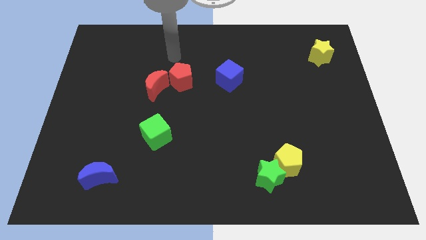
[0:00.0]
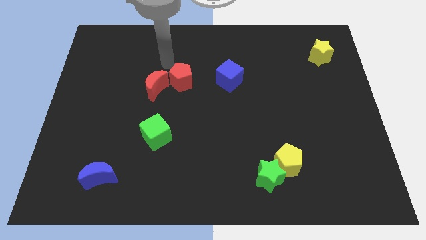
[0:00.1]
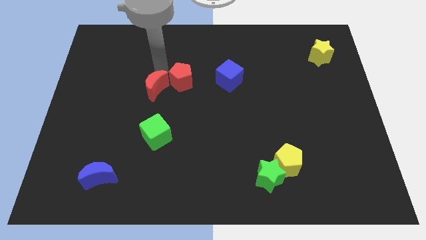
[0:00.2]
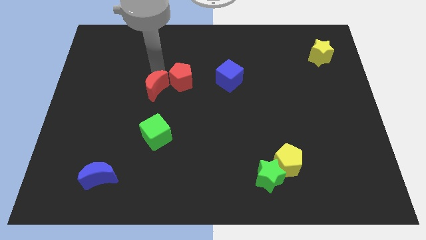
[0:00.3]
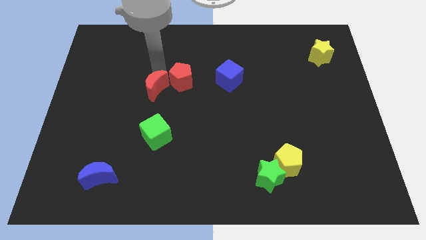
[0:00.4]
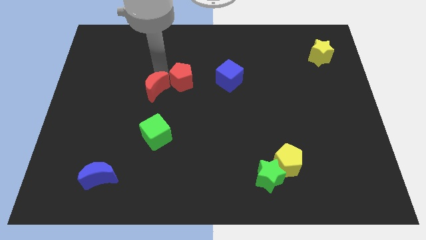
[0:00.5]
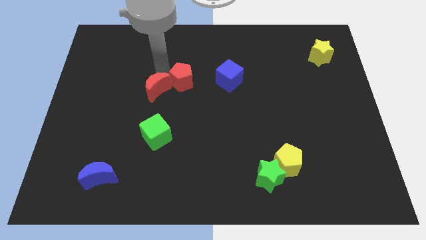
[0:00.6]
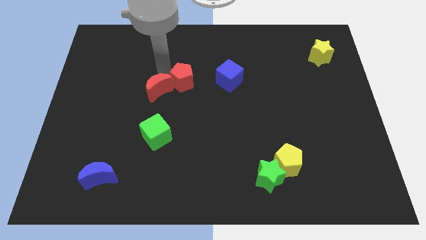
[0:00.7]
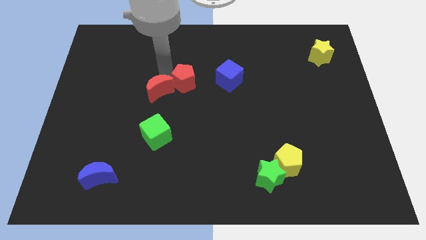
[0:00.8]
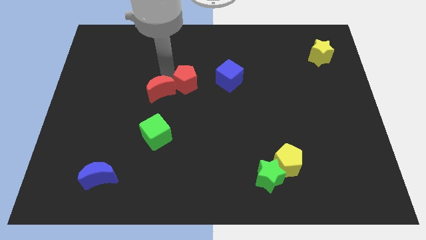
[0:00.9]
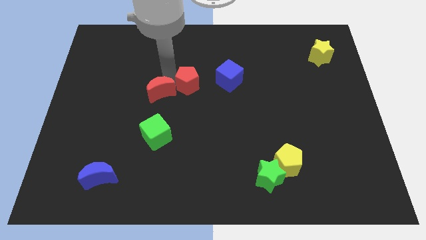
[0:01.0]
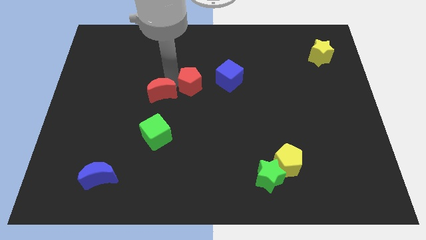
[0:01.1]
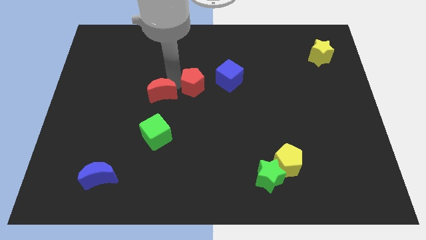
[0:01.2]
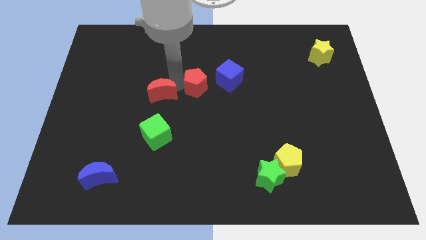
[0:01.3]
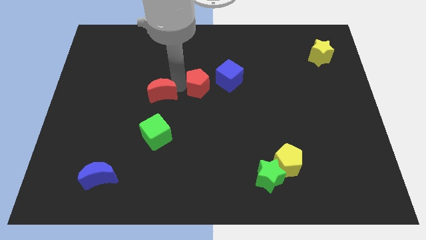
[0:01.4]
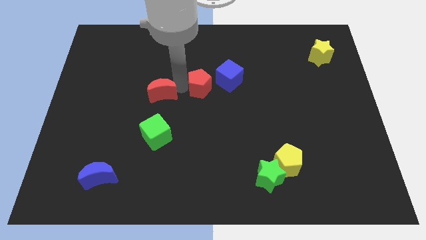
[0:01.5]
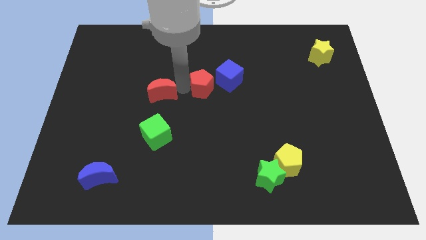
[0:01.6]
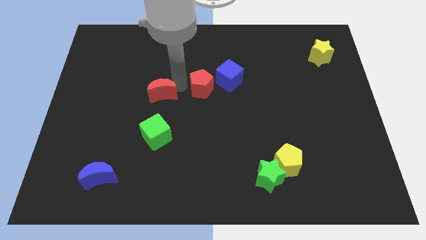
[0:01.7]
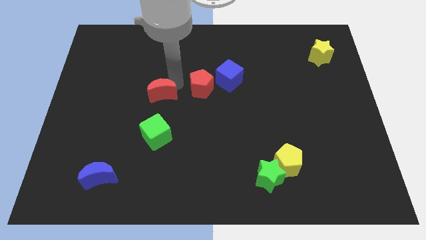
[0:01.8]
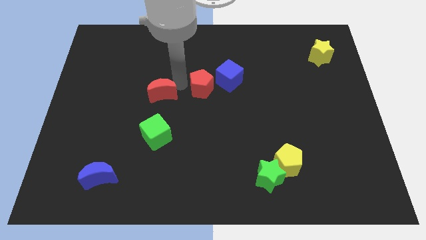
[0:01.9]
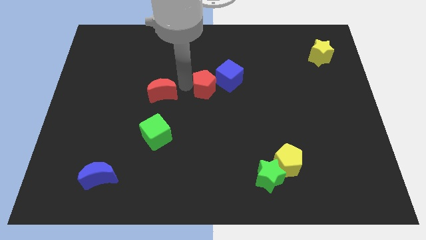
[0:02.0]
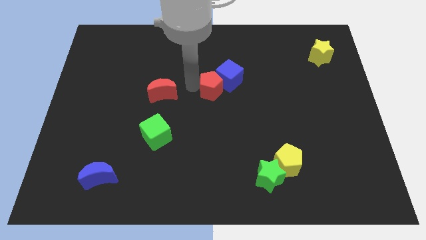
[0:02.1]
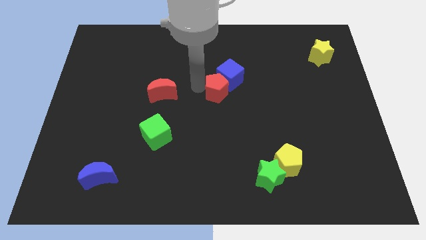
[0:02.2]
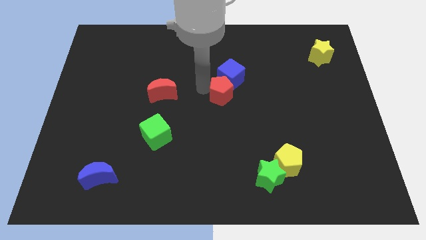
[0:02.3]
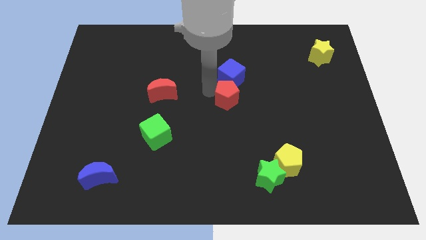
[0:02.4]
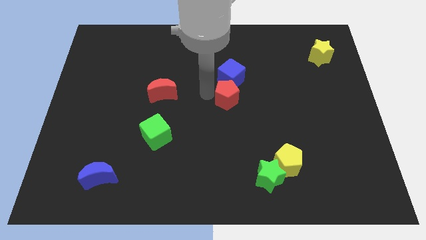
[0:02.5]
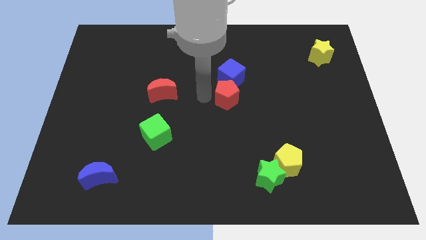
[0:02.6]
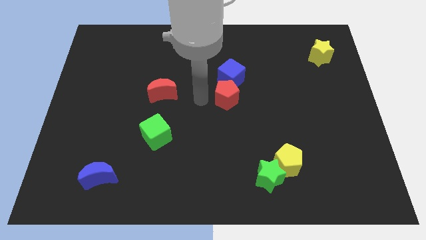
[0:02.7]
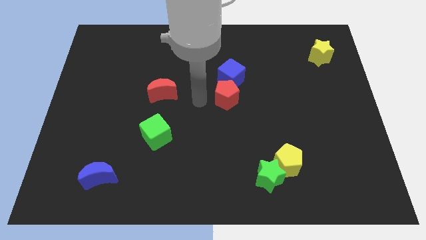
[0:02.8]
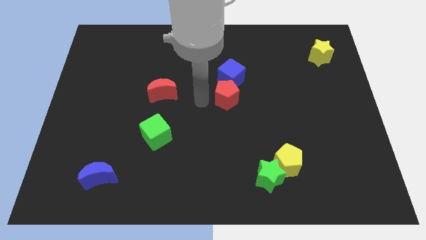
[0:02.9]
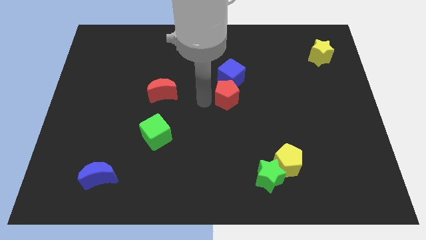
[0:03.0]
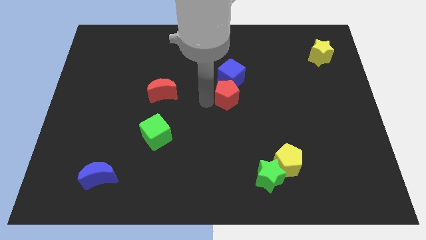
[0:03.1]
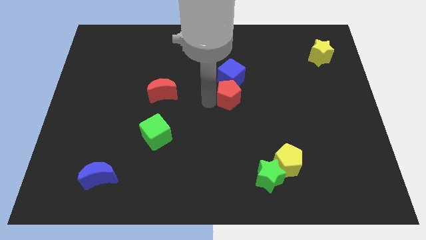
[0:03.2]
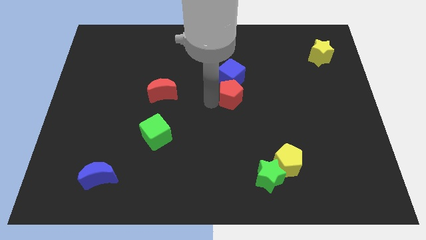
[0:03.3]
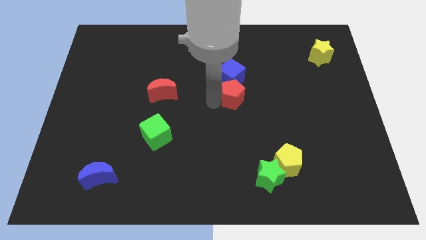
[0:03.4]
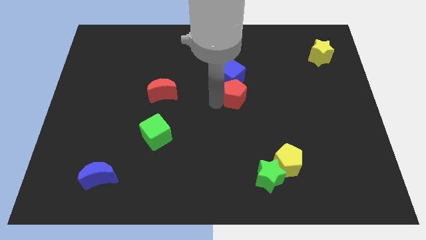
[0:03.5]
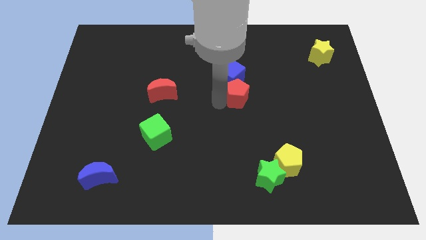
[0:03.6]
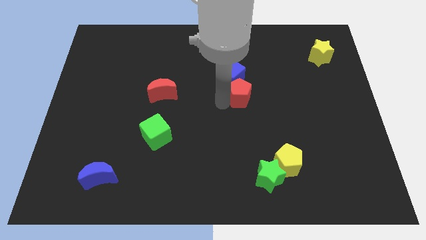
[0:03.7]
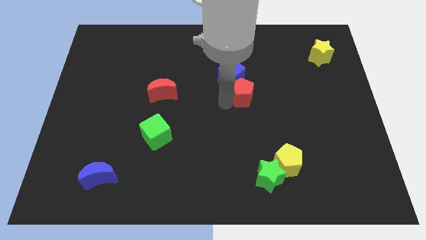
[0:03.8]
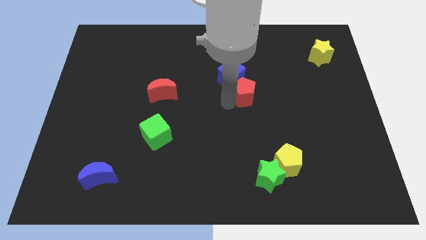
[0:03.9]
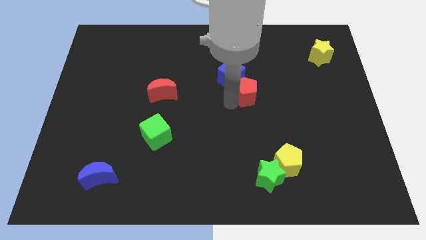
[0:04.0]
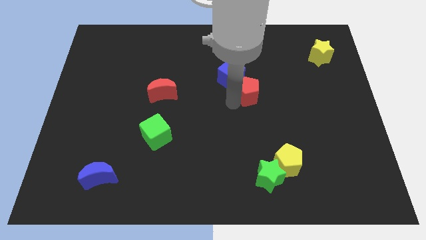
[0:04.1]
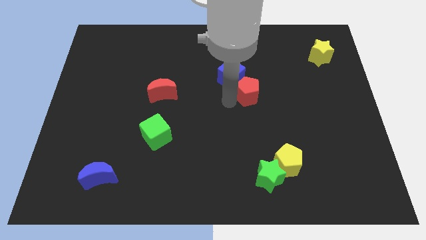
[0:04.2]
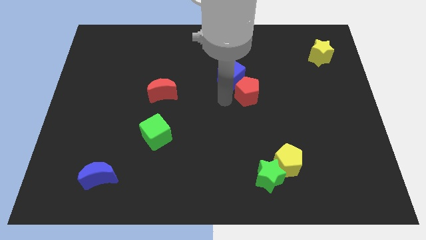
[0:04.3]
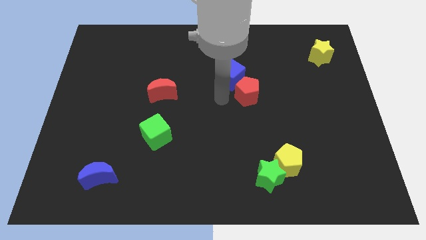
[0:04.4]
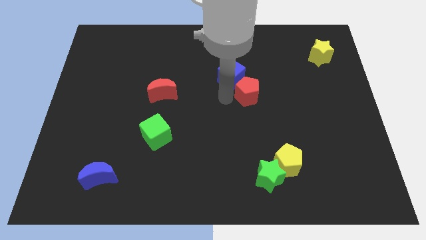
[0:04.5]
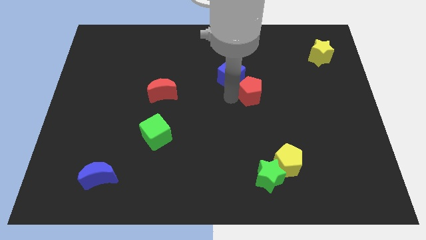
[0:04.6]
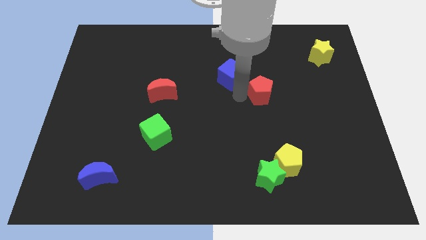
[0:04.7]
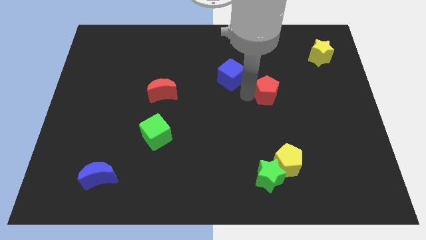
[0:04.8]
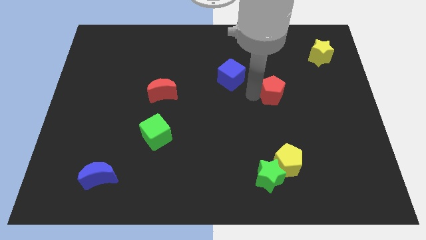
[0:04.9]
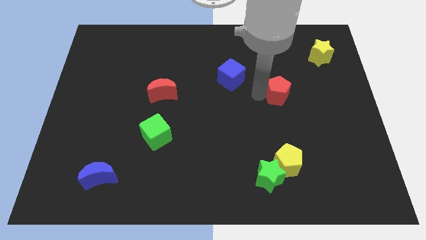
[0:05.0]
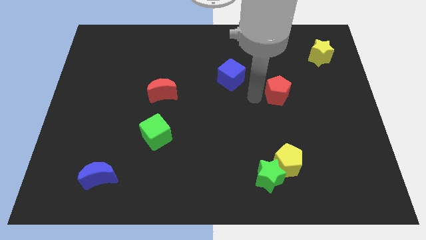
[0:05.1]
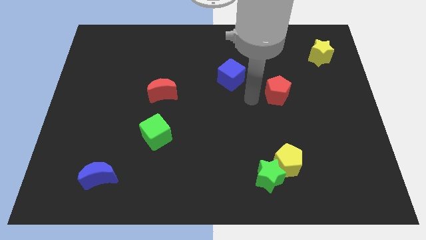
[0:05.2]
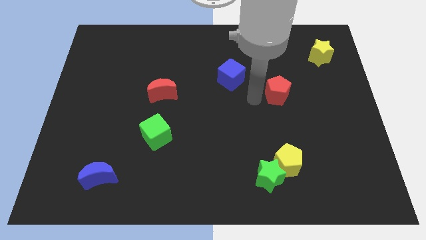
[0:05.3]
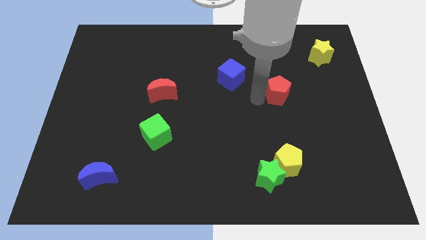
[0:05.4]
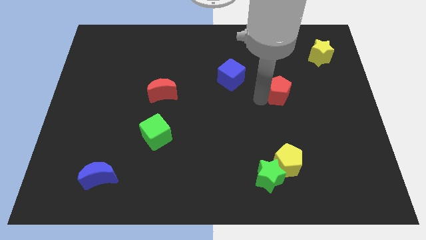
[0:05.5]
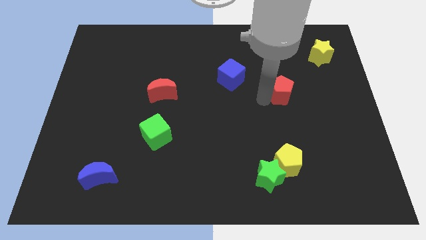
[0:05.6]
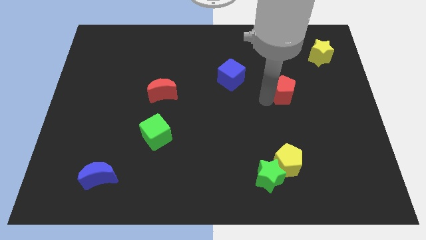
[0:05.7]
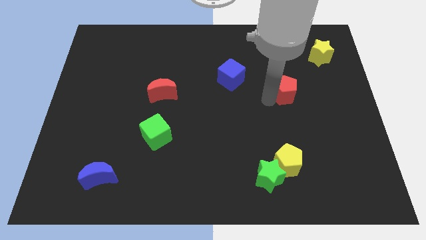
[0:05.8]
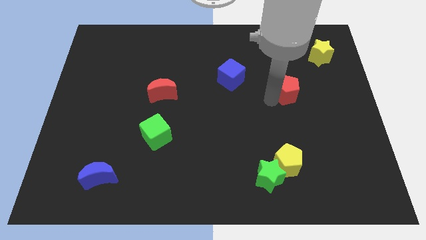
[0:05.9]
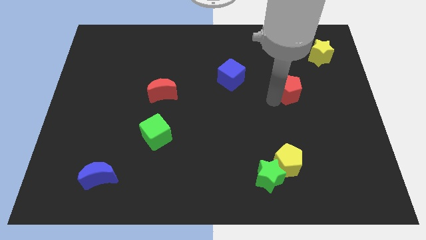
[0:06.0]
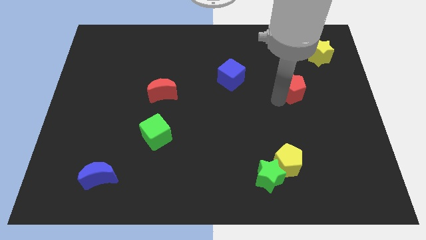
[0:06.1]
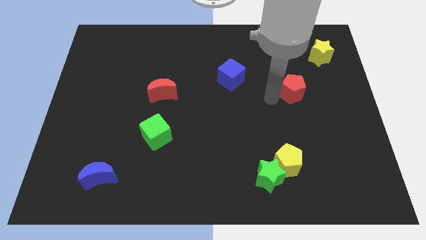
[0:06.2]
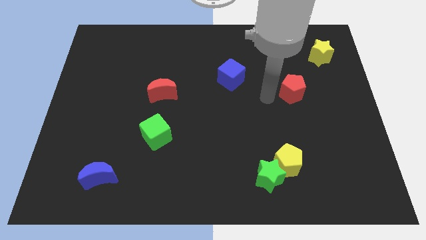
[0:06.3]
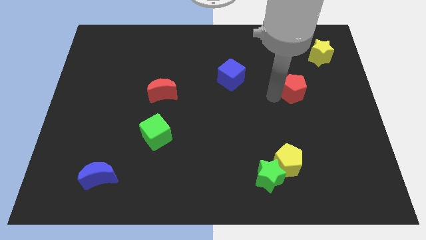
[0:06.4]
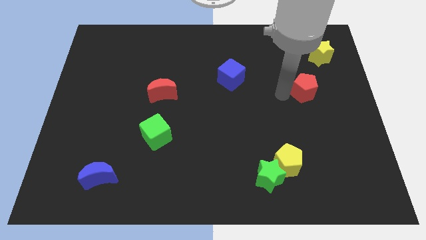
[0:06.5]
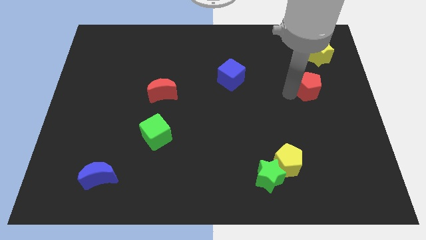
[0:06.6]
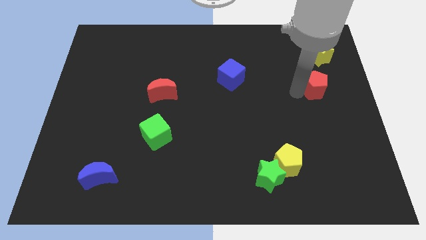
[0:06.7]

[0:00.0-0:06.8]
push the red pentagon to the bottom side of the yellow star

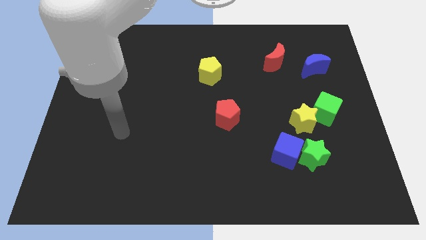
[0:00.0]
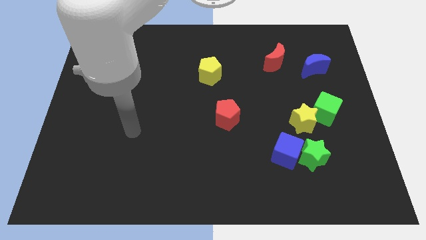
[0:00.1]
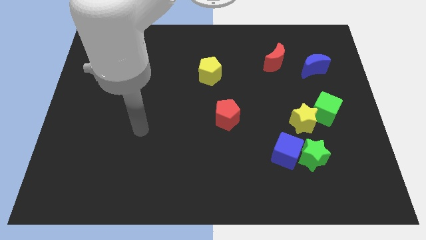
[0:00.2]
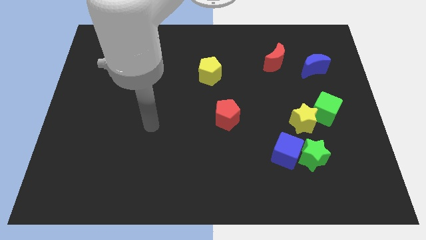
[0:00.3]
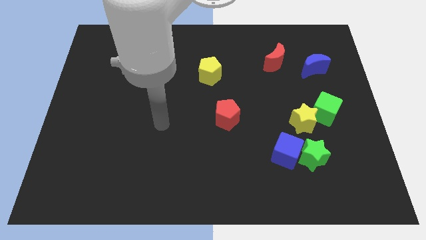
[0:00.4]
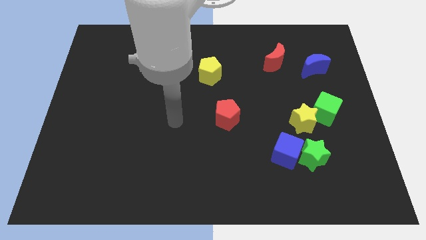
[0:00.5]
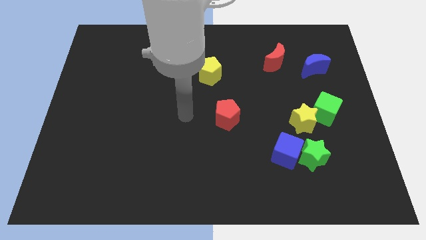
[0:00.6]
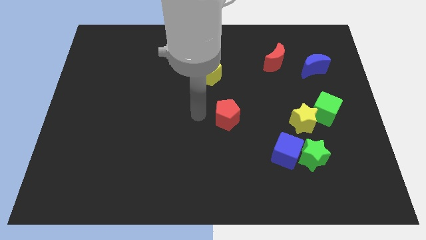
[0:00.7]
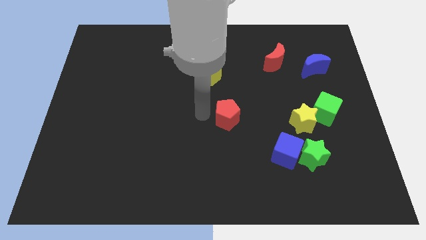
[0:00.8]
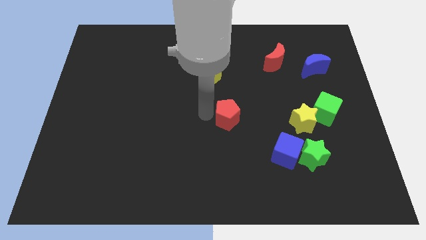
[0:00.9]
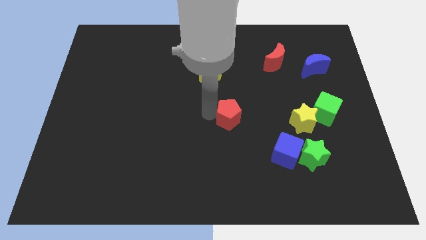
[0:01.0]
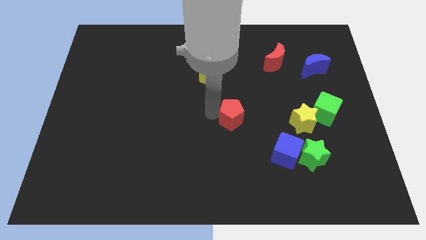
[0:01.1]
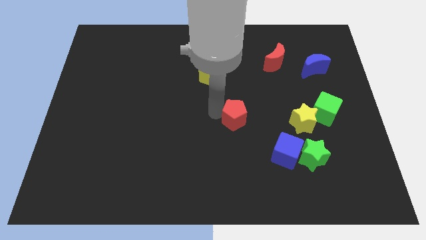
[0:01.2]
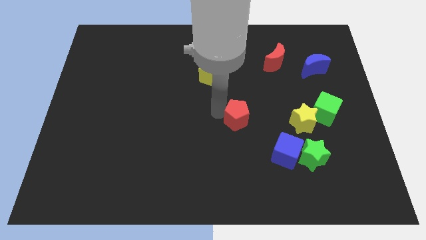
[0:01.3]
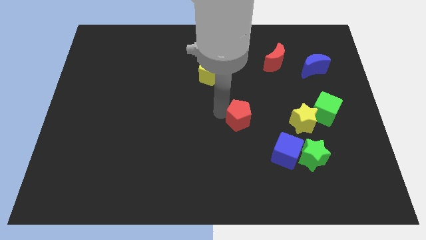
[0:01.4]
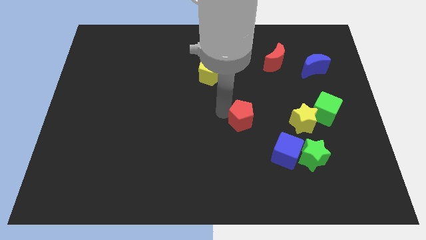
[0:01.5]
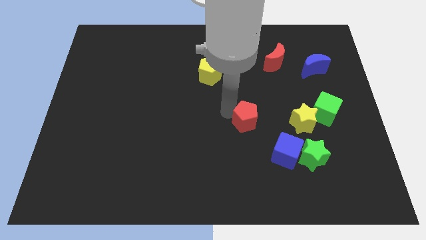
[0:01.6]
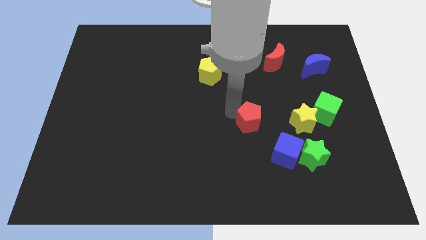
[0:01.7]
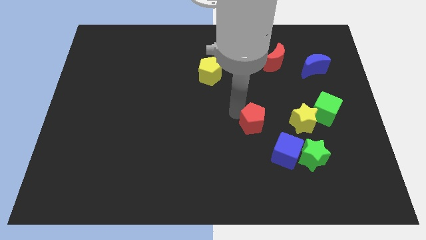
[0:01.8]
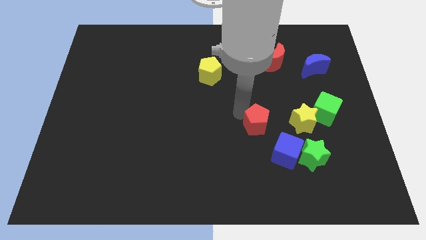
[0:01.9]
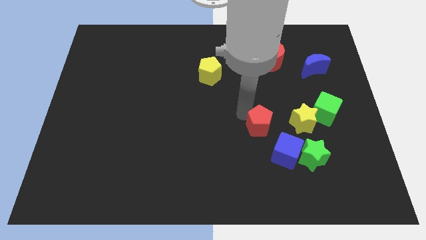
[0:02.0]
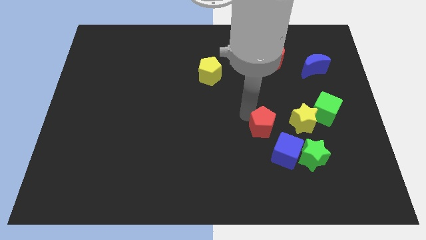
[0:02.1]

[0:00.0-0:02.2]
put the red pentagon to the top left side of the green star
